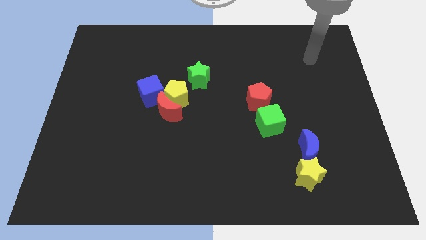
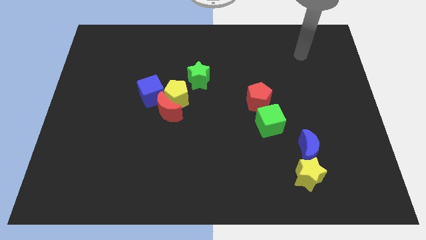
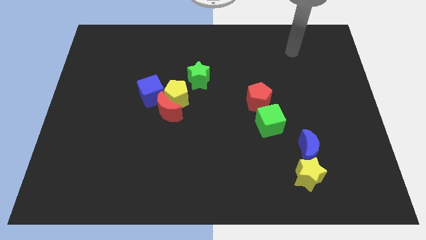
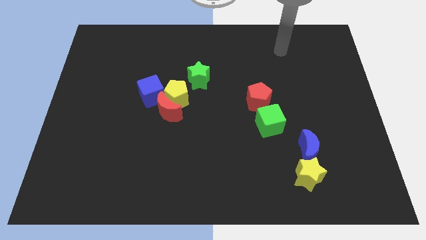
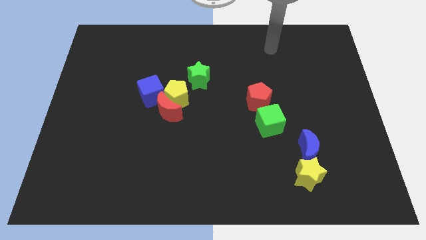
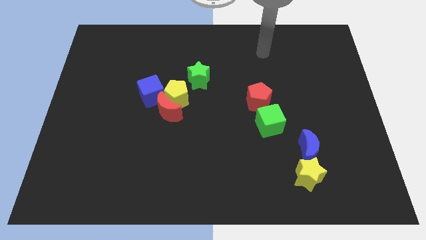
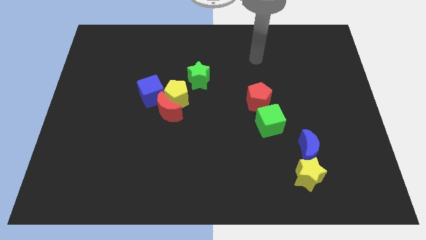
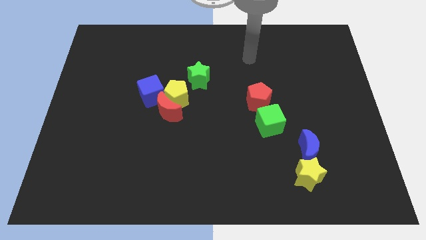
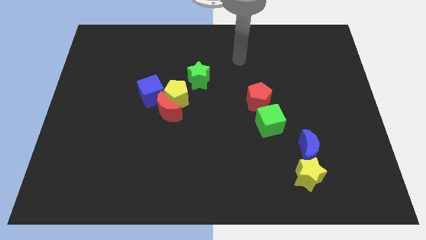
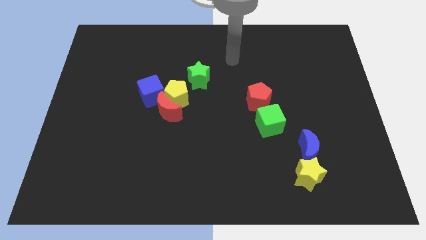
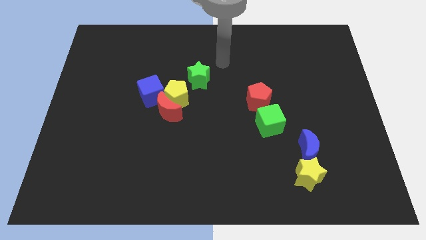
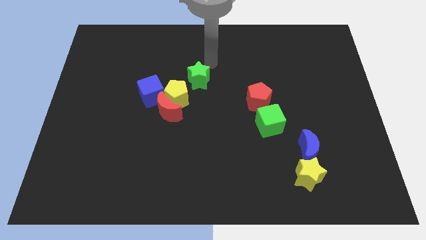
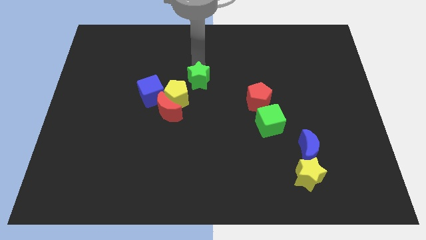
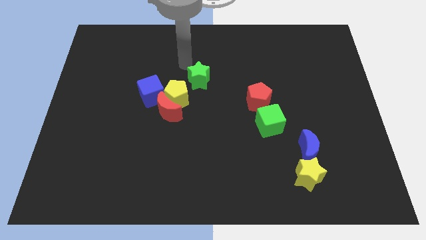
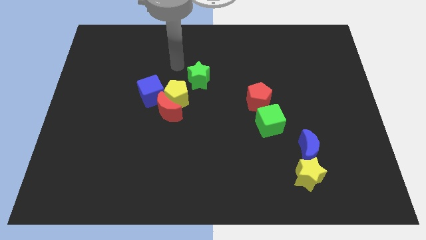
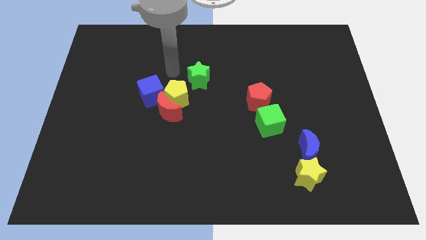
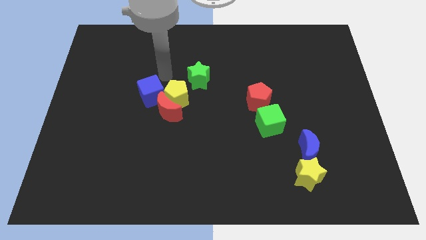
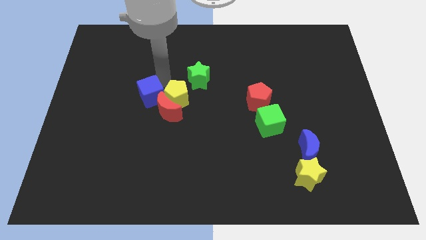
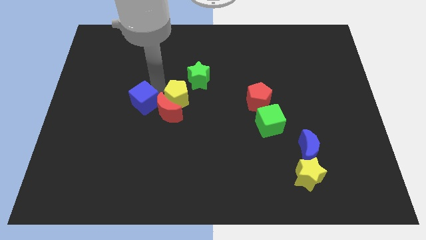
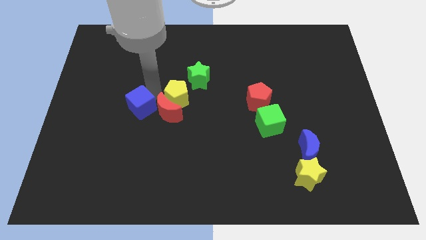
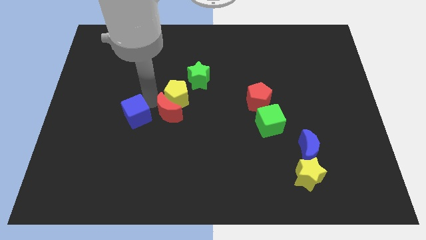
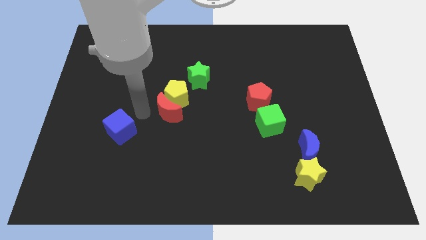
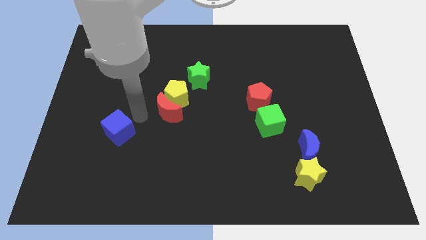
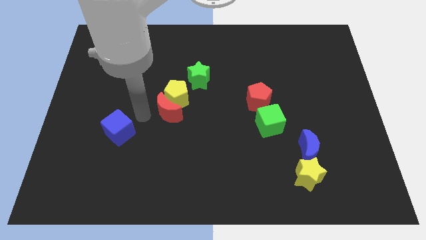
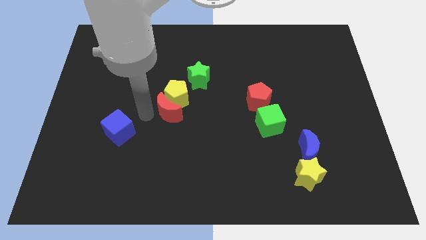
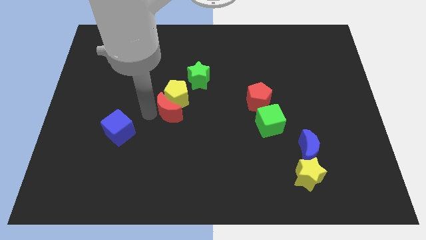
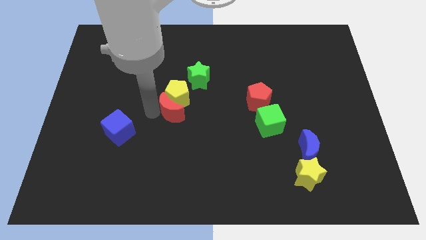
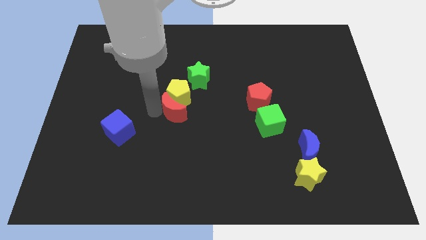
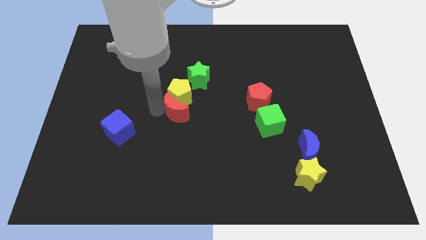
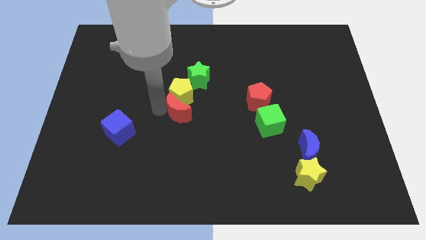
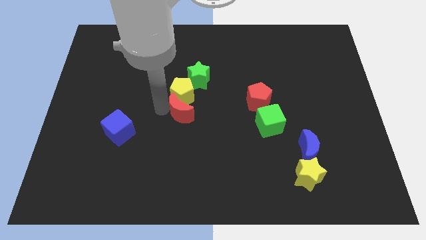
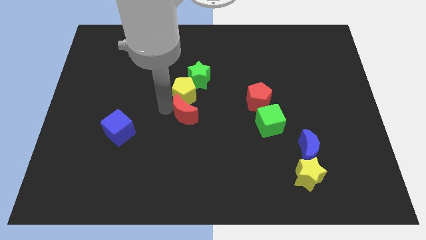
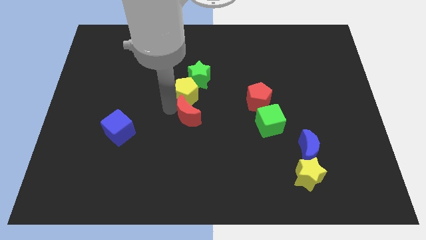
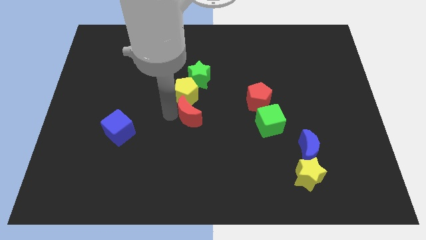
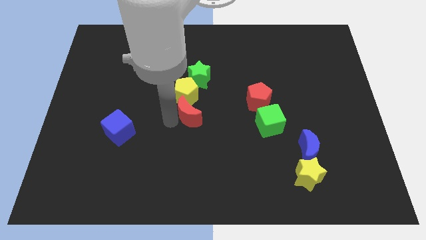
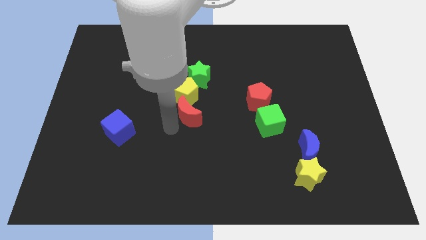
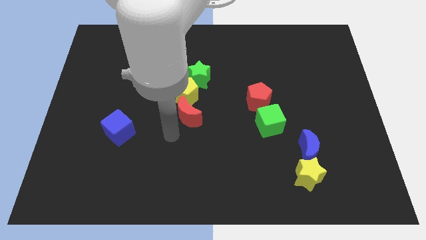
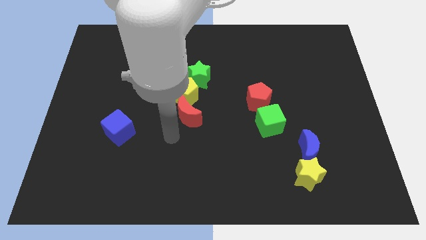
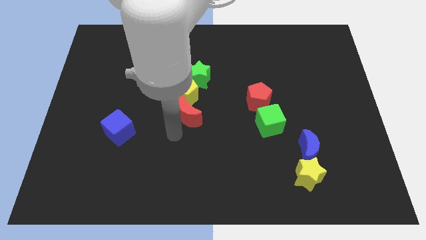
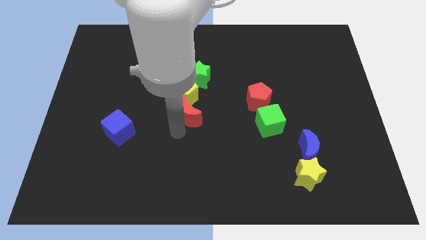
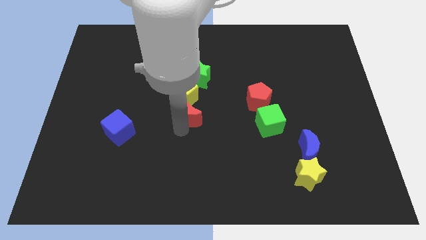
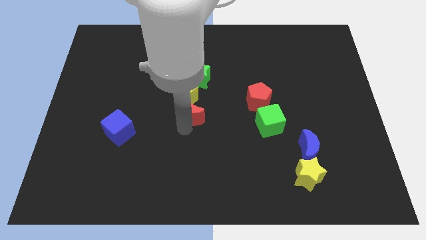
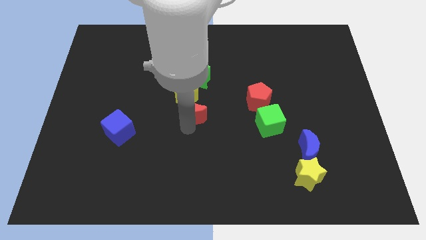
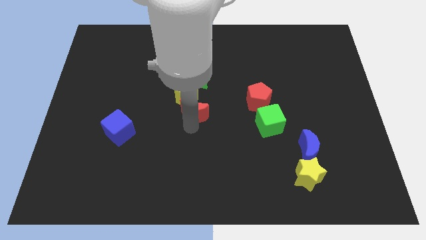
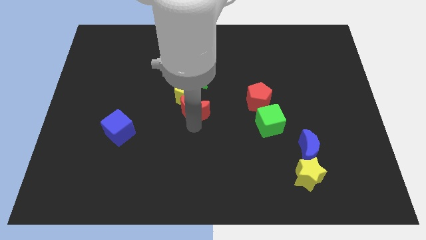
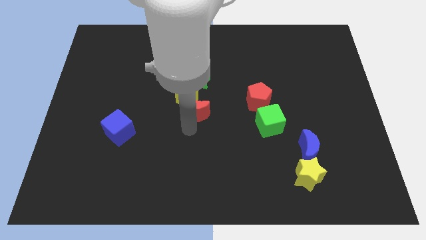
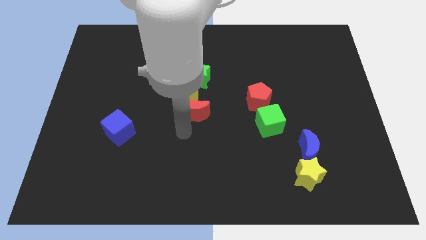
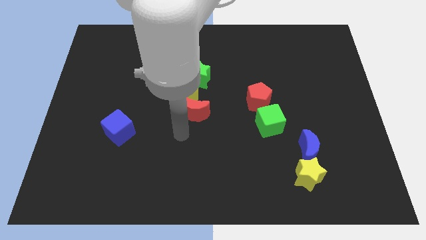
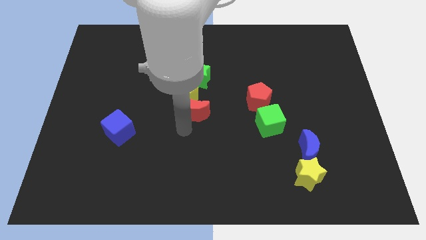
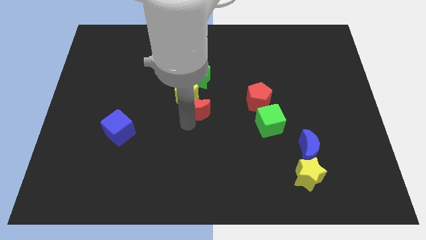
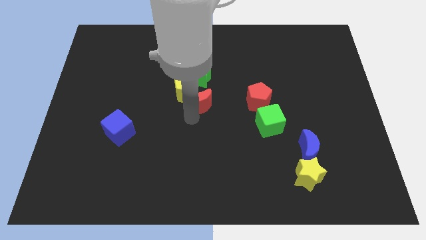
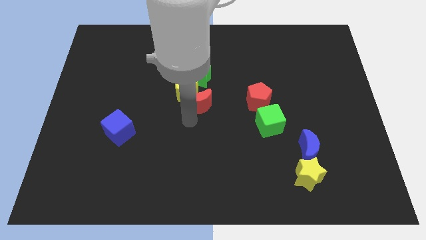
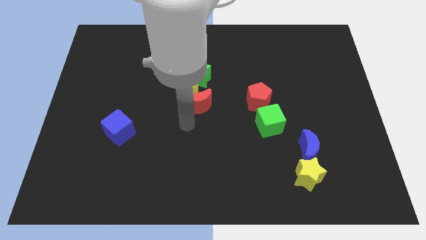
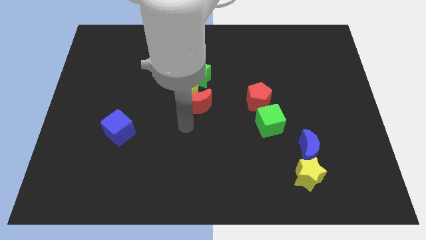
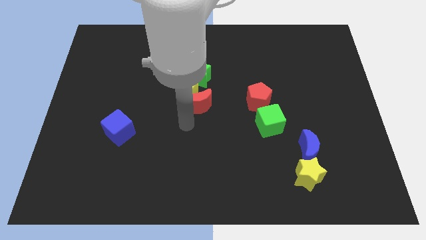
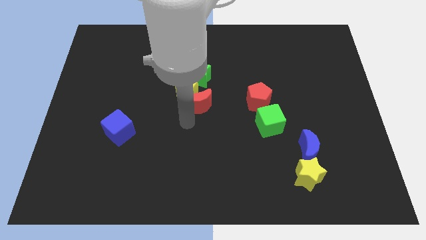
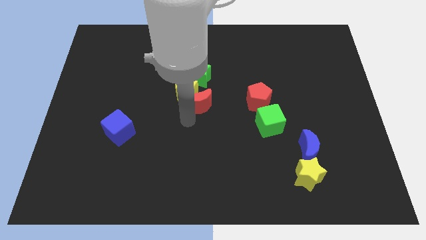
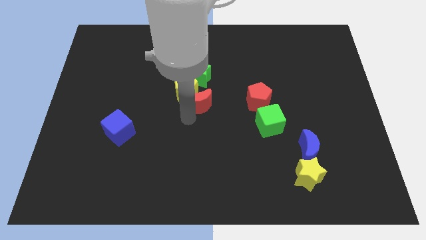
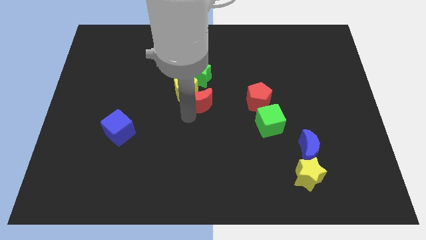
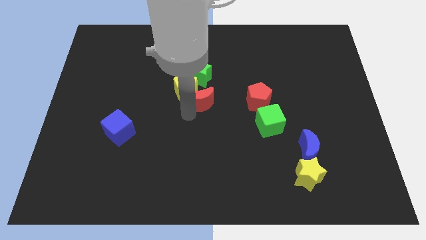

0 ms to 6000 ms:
push the red moon diagonally up and right somewhat

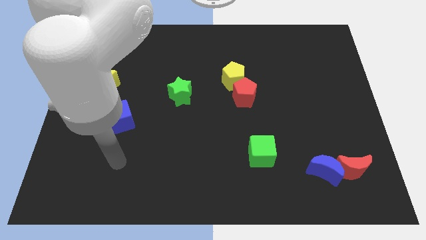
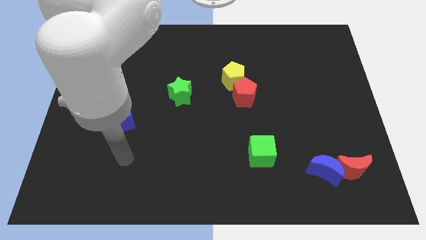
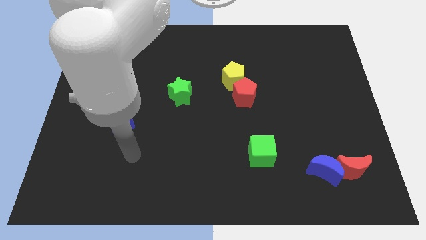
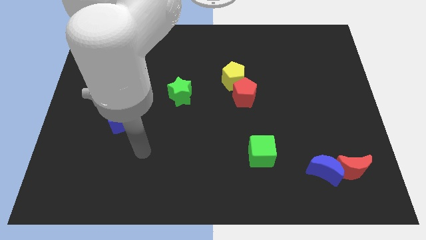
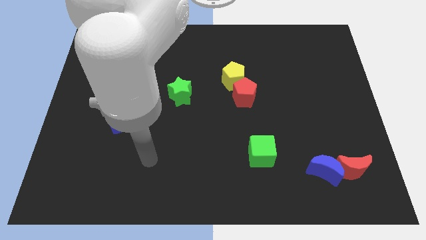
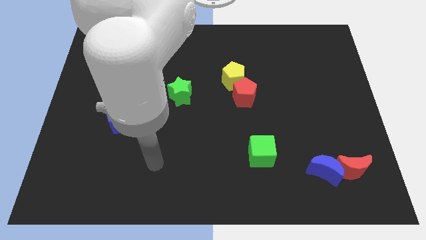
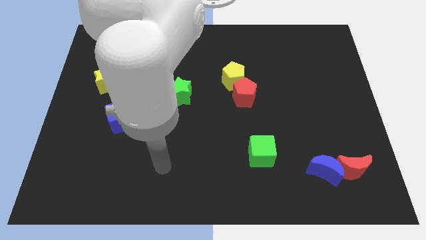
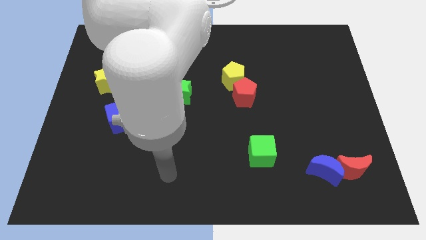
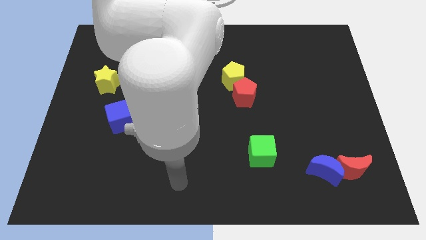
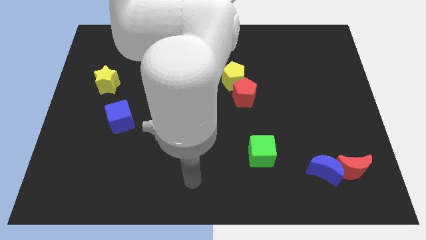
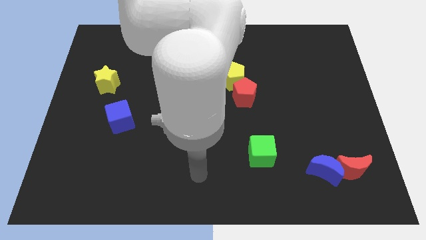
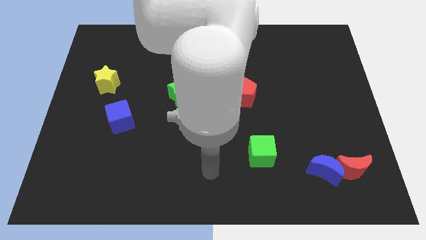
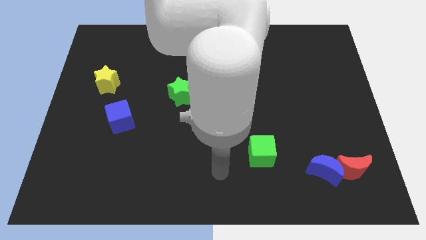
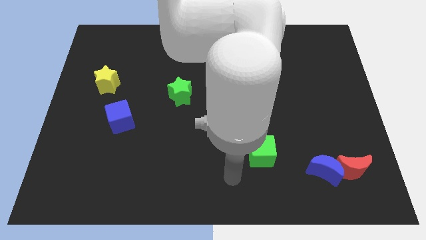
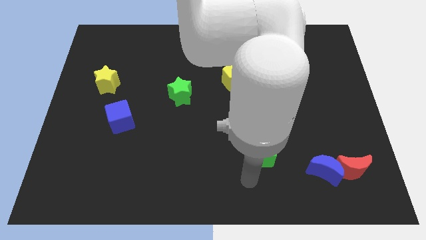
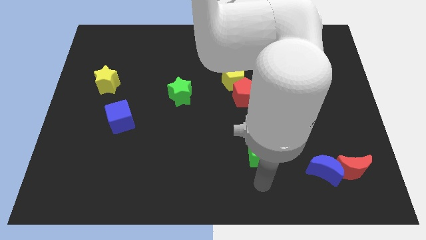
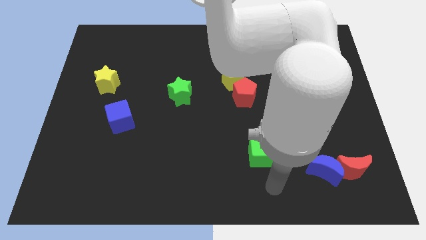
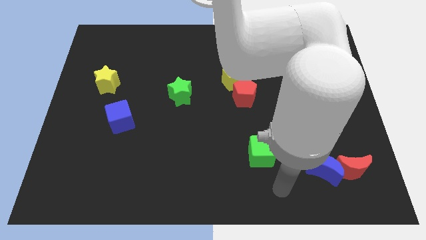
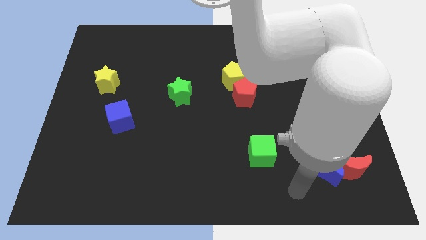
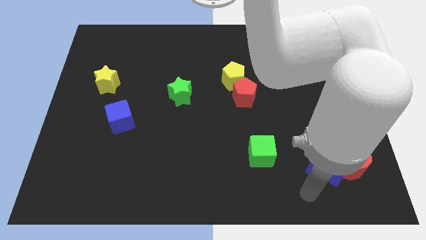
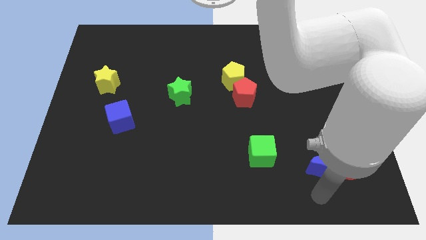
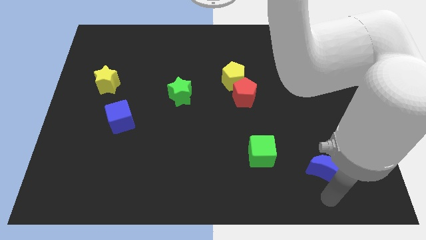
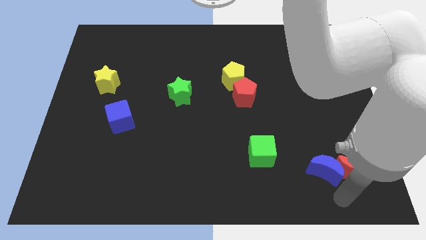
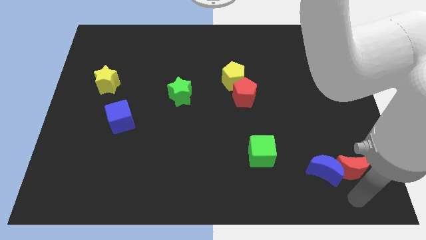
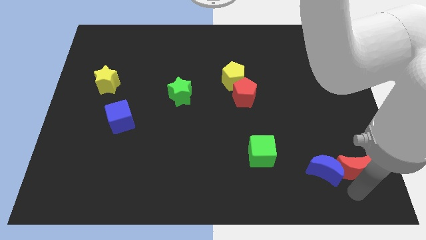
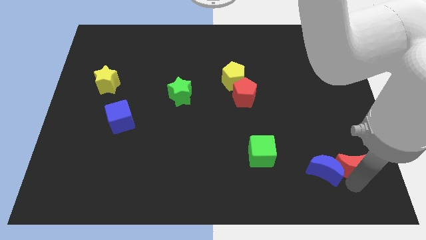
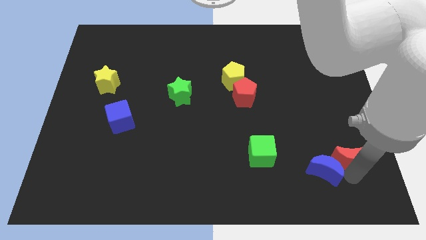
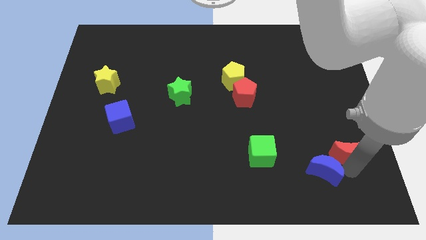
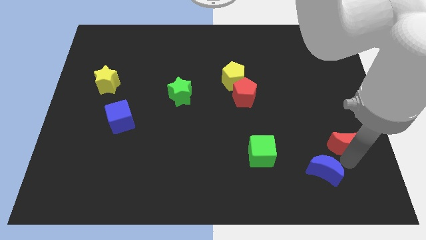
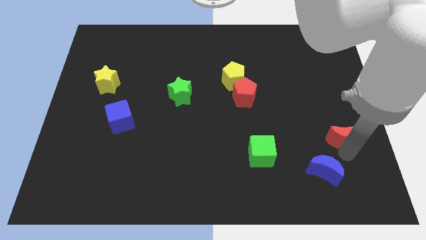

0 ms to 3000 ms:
push the red moon upwards a bit
